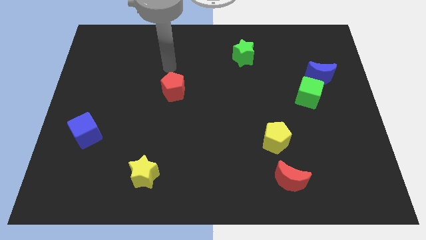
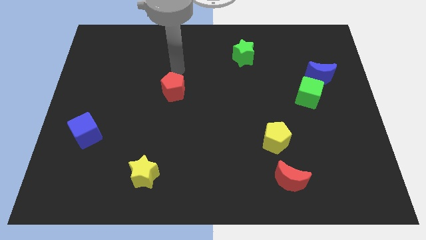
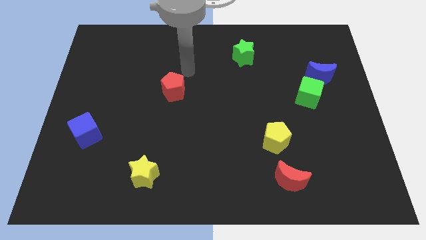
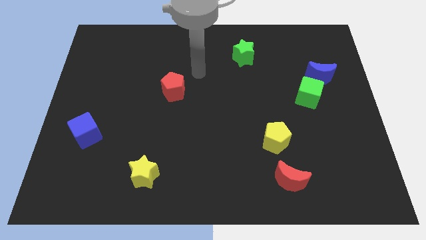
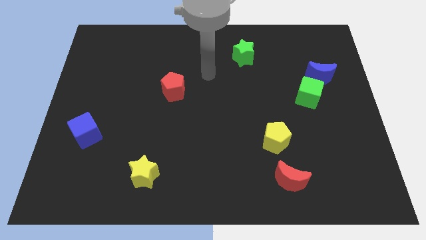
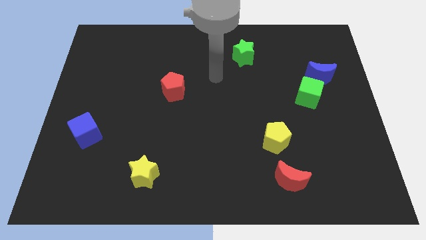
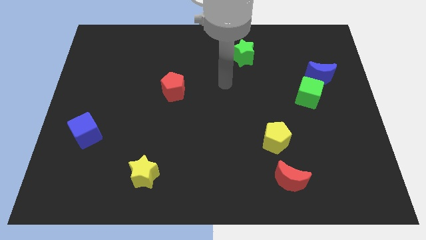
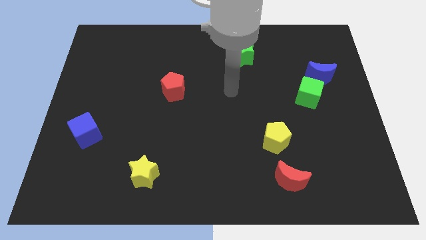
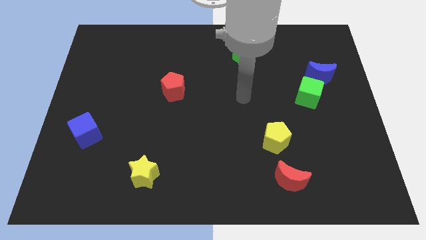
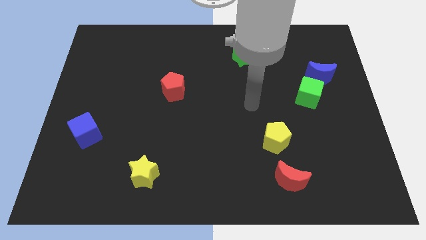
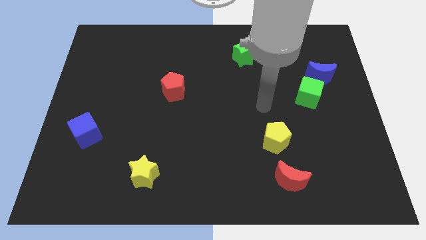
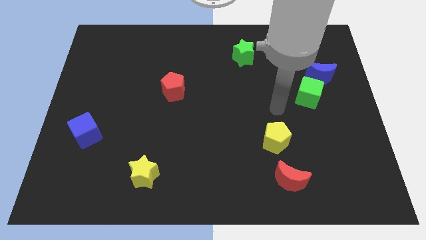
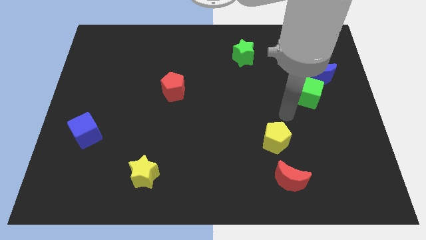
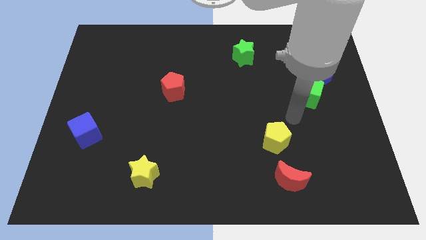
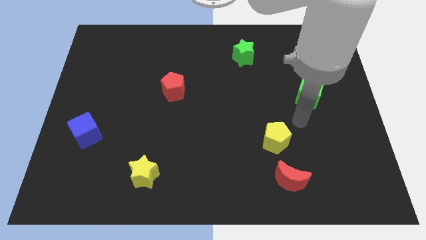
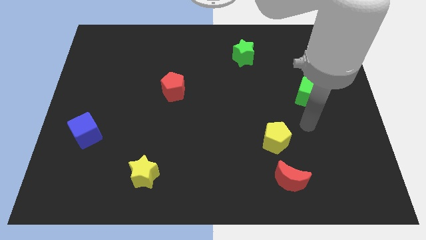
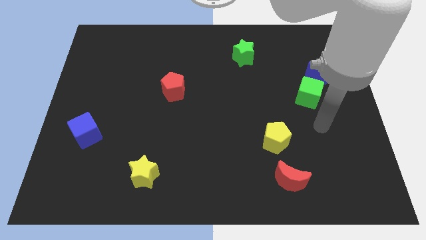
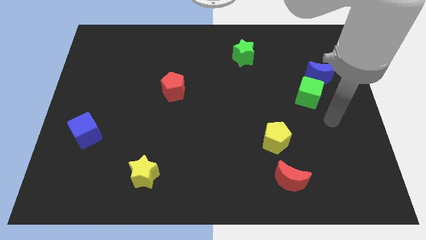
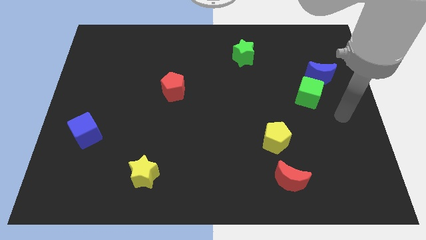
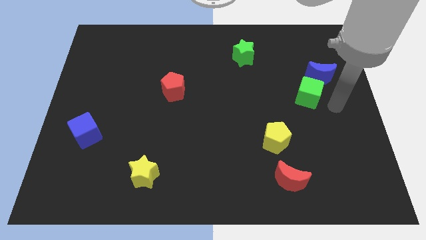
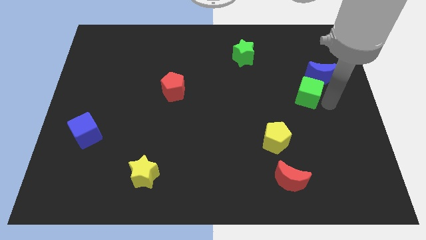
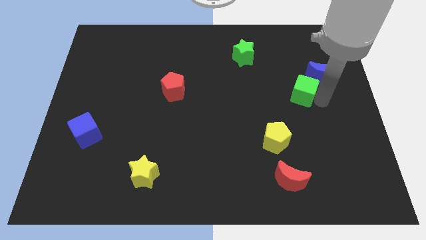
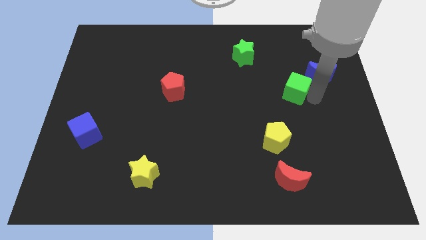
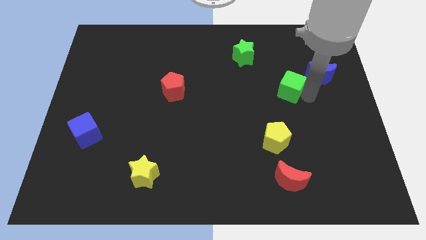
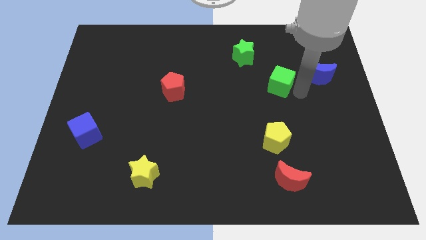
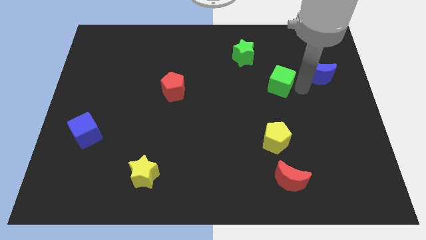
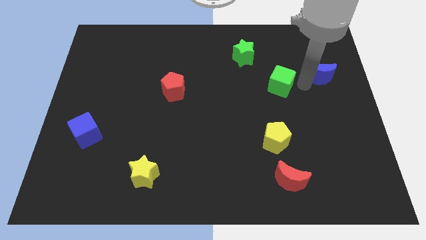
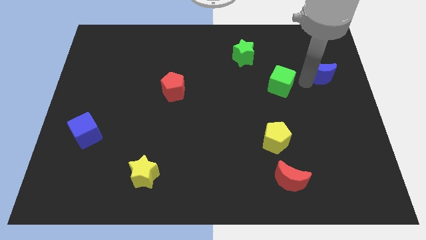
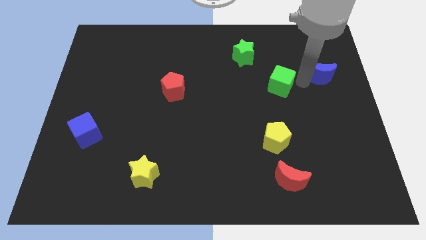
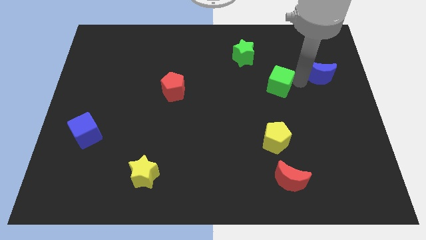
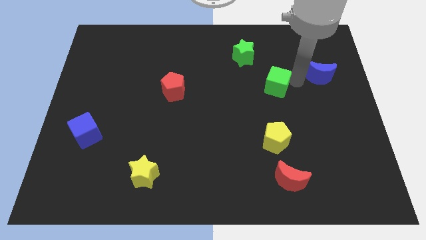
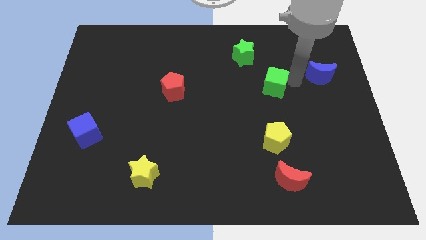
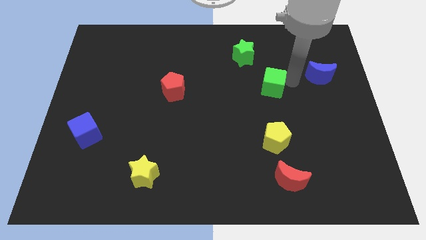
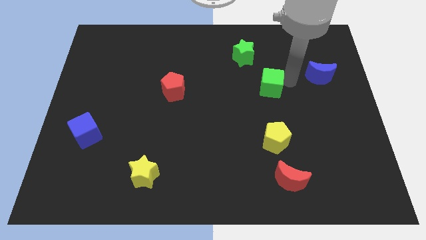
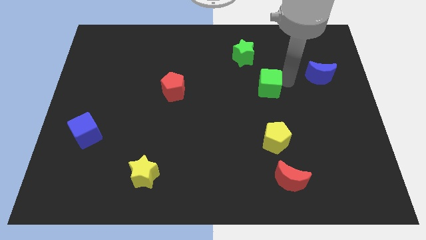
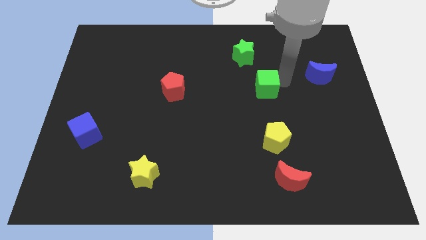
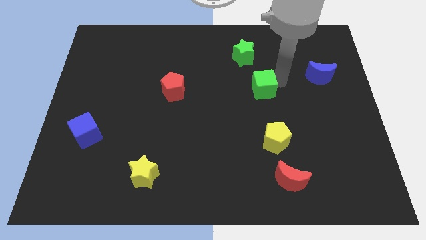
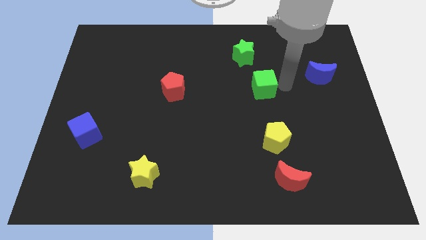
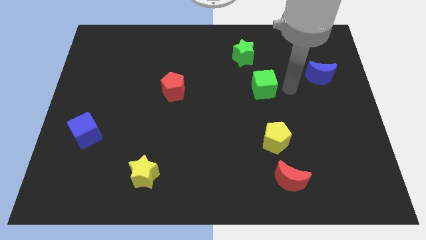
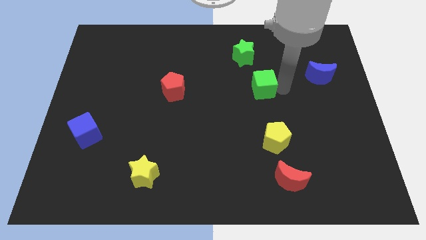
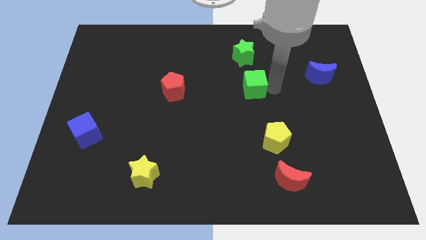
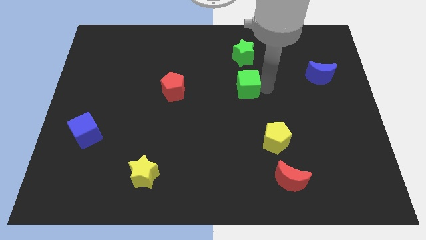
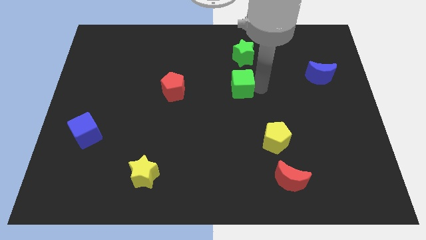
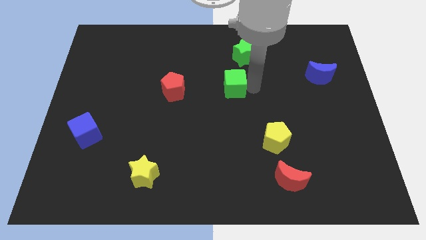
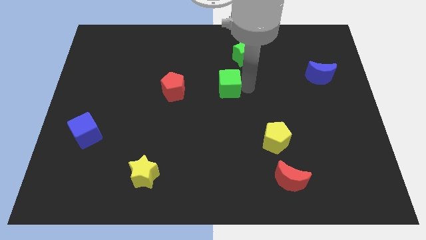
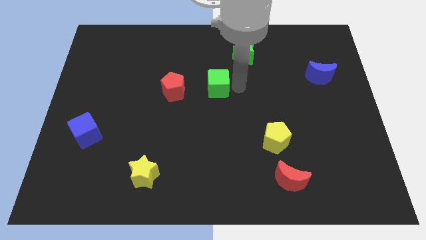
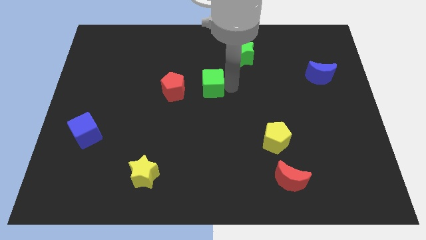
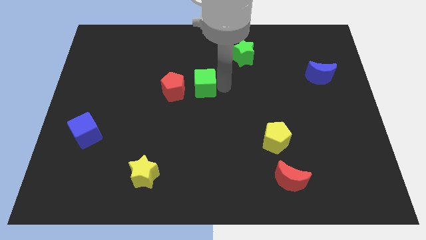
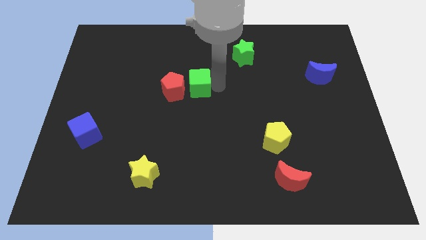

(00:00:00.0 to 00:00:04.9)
slide the green cube close to the red pentagon

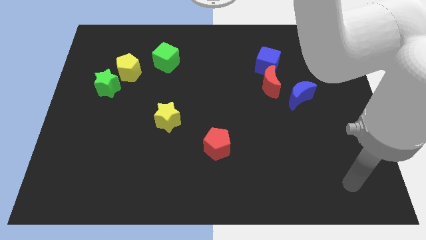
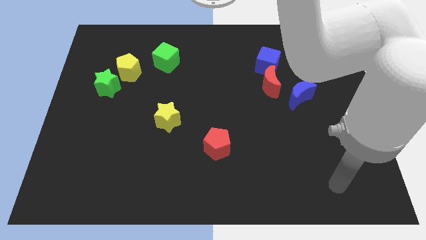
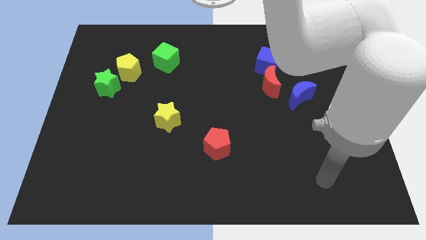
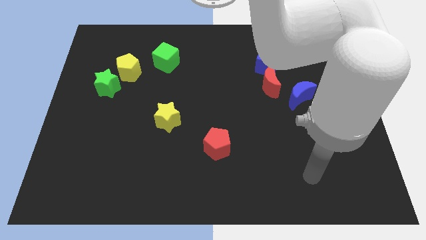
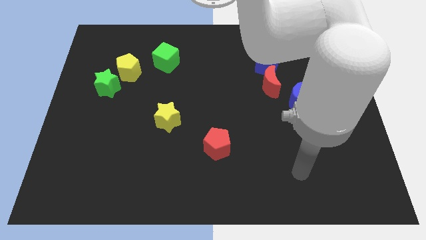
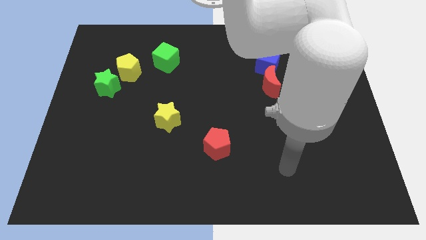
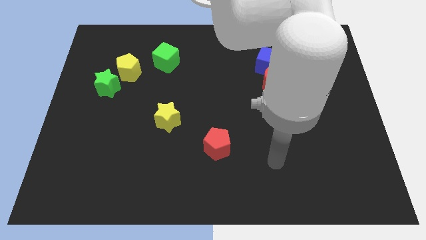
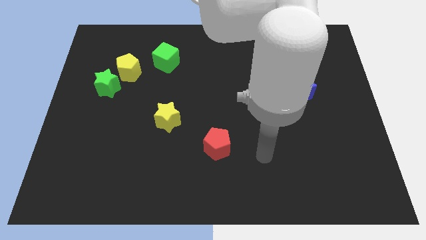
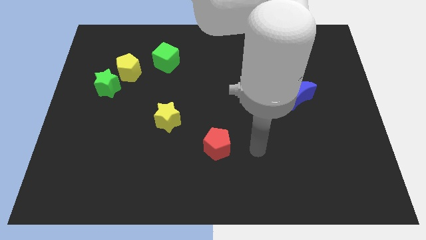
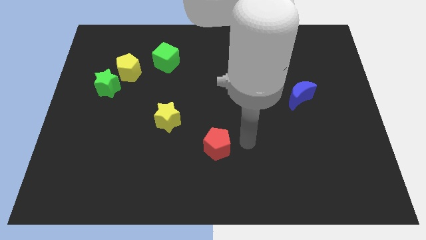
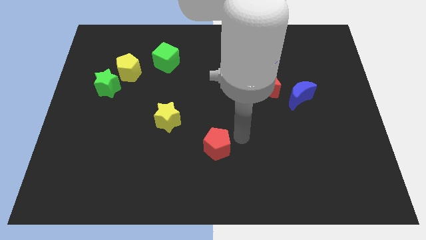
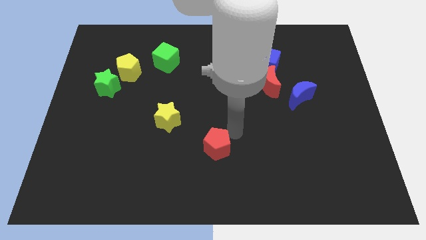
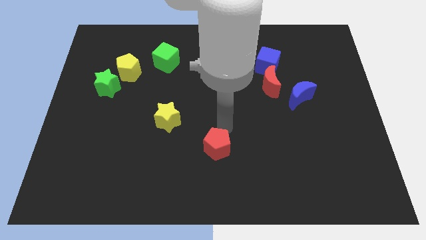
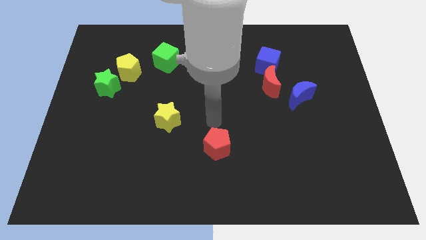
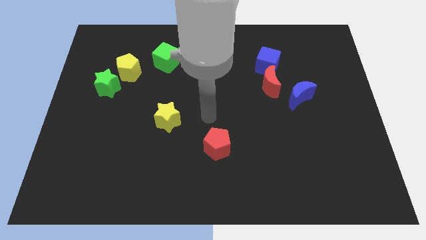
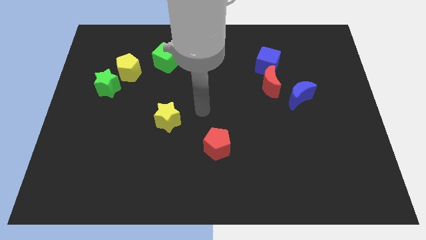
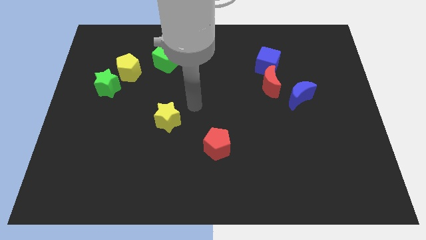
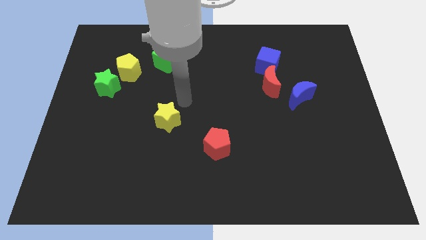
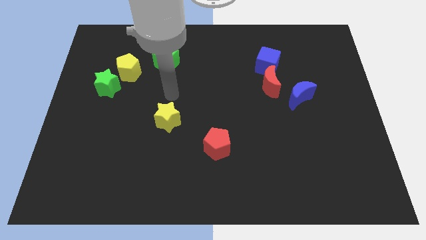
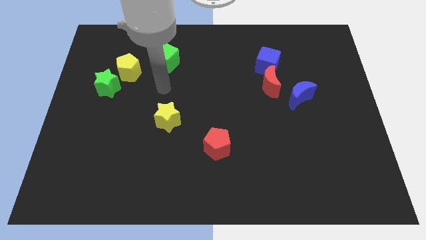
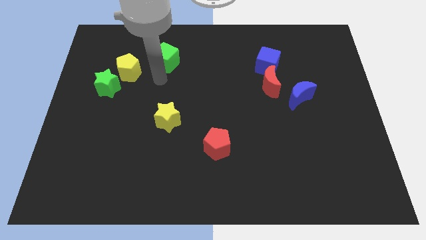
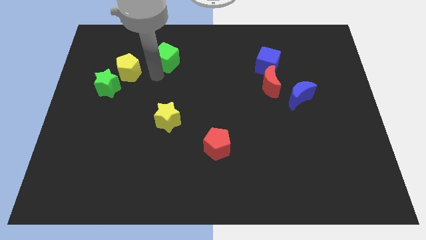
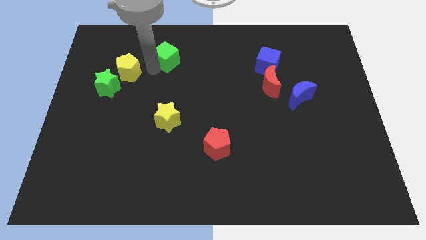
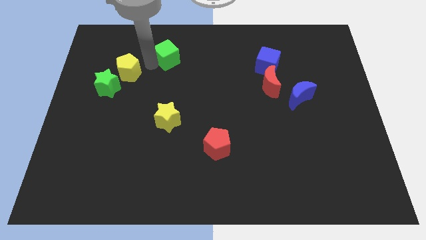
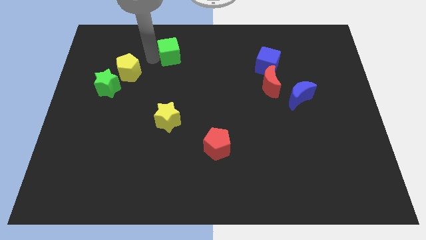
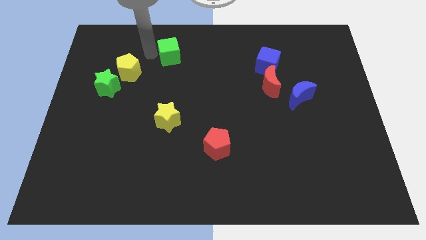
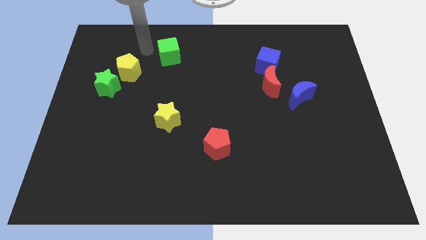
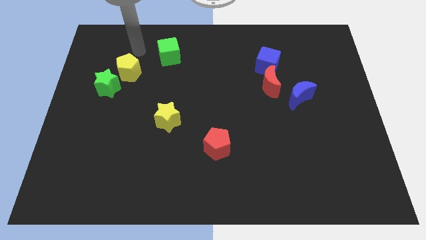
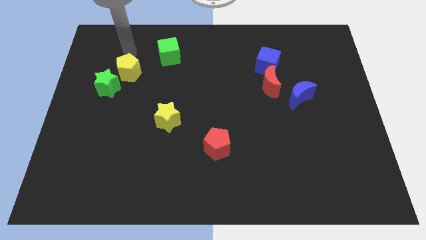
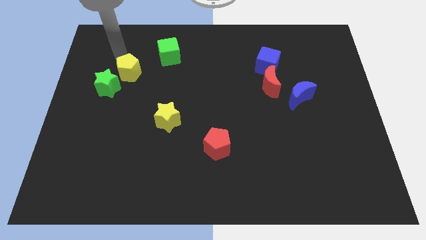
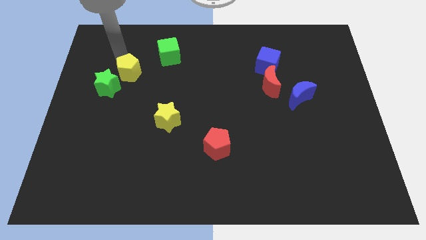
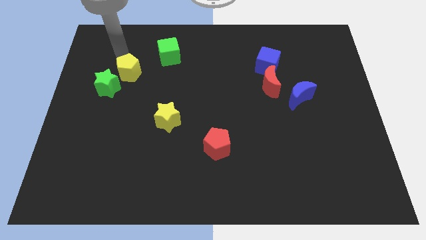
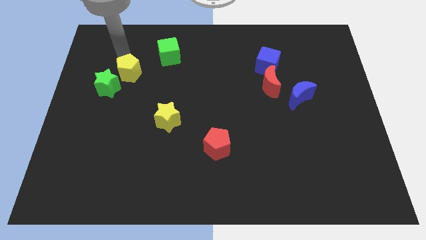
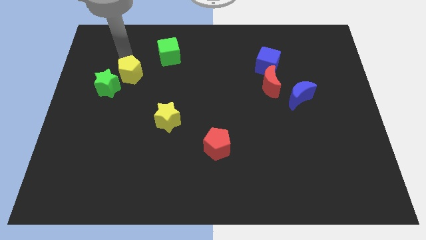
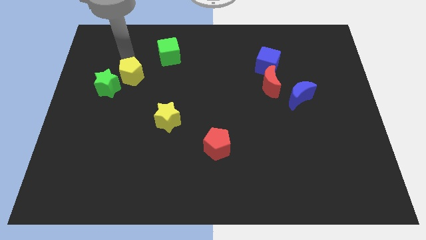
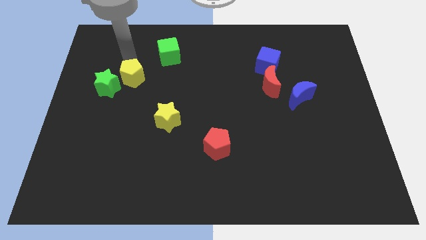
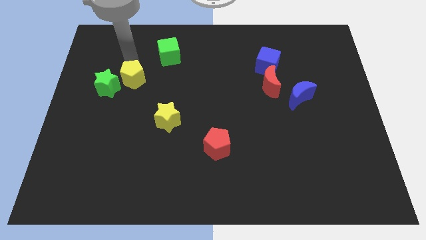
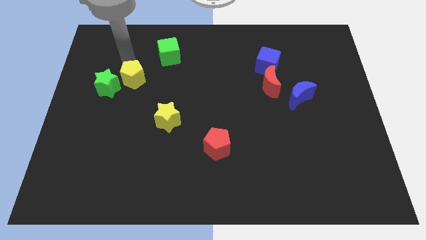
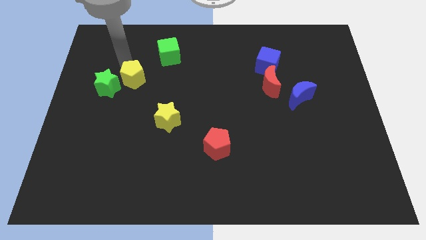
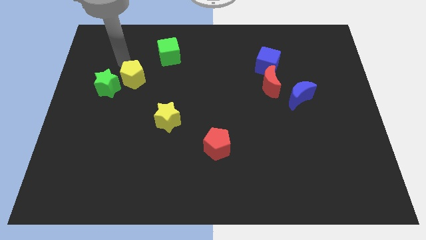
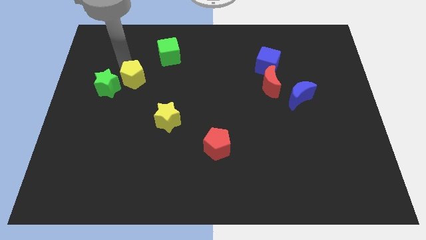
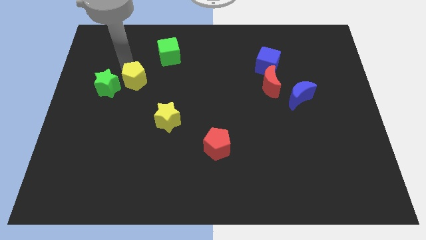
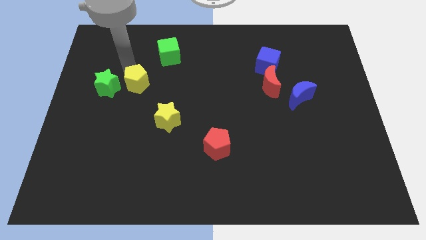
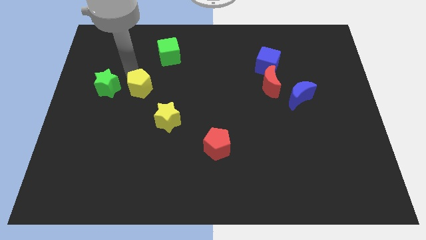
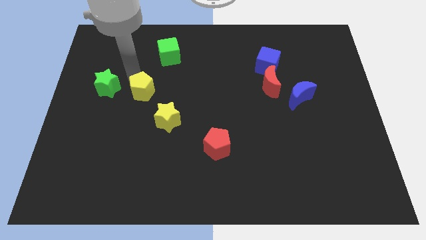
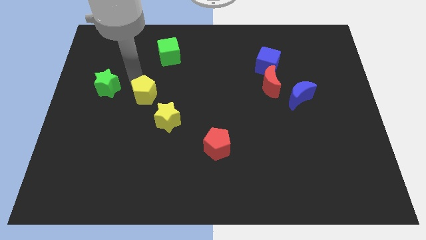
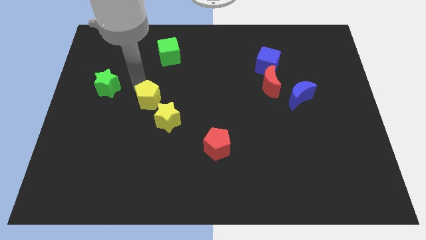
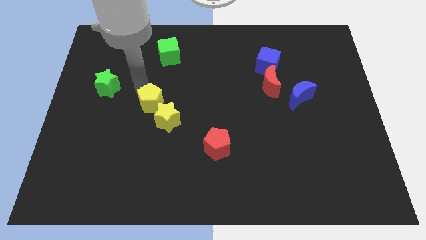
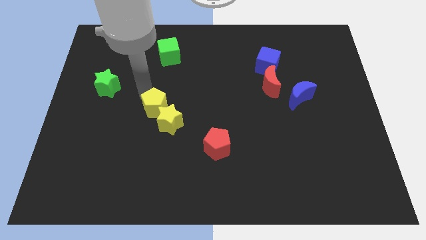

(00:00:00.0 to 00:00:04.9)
put the yellow pentagon to the yellow star
